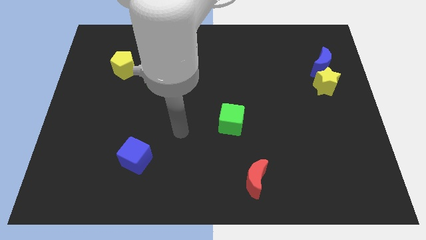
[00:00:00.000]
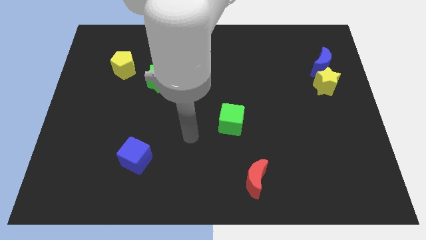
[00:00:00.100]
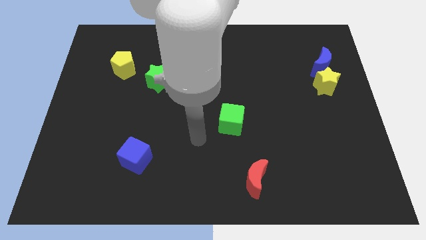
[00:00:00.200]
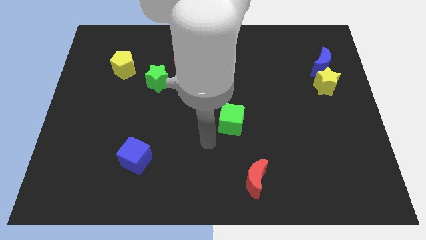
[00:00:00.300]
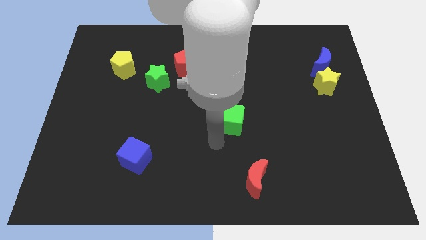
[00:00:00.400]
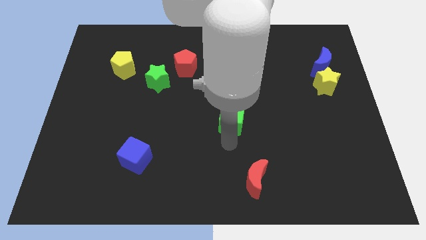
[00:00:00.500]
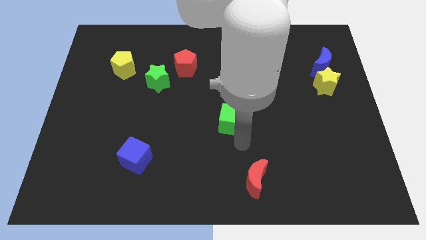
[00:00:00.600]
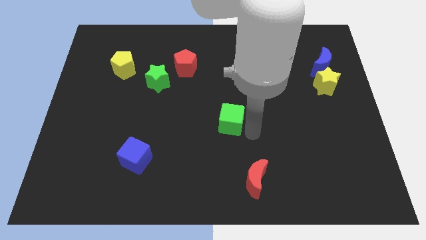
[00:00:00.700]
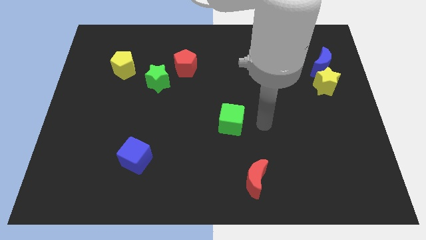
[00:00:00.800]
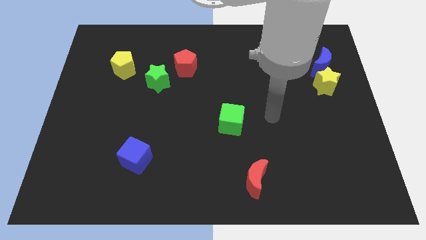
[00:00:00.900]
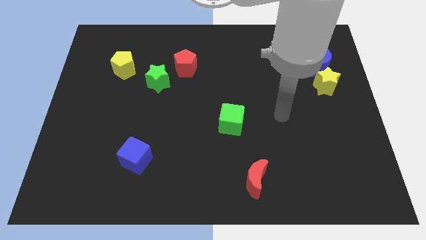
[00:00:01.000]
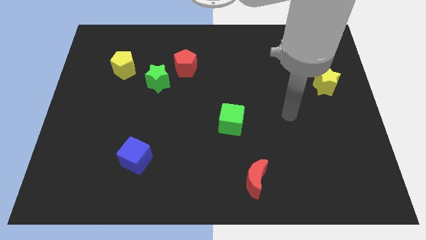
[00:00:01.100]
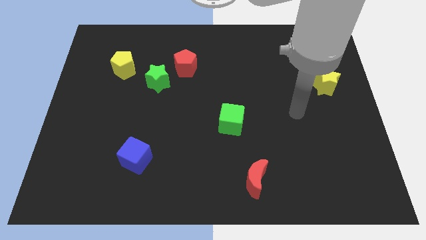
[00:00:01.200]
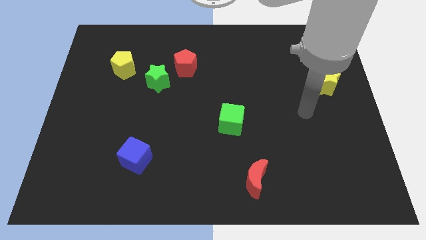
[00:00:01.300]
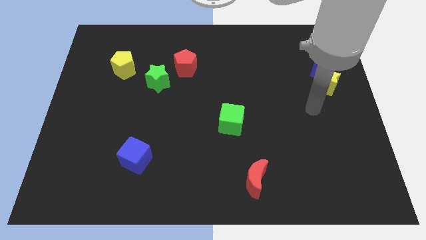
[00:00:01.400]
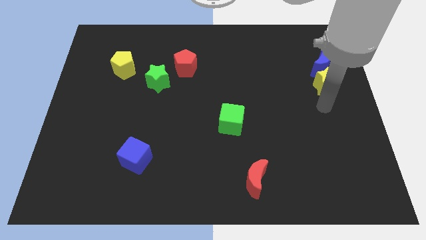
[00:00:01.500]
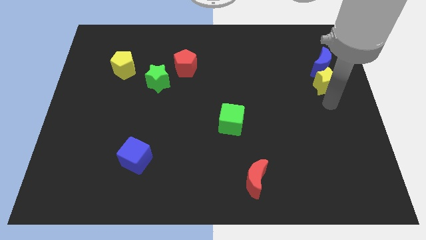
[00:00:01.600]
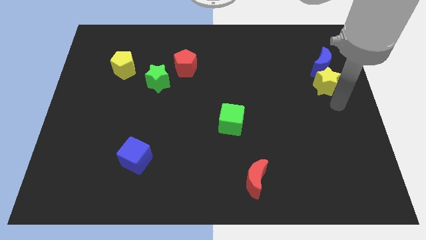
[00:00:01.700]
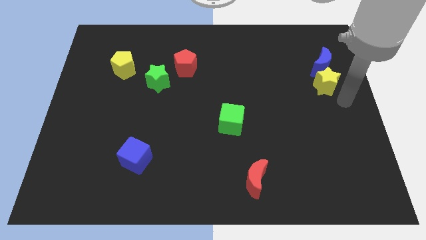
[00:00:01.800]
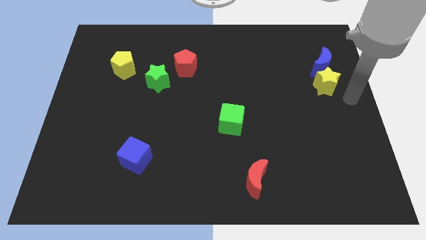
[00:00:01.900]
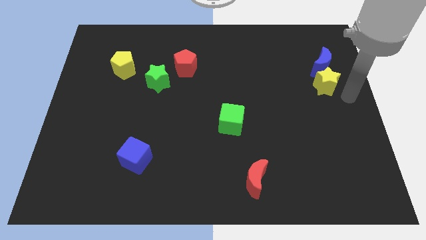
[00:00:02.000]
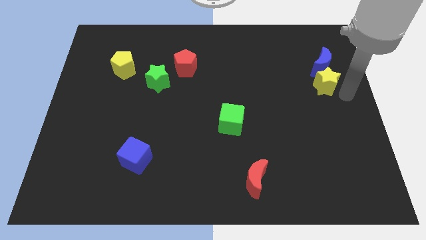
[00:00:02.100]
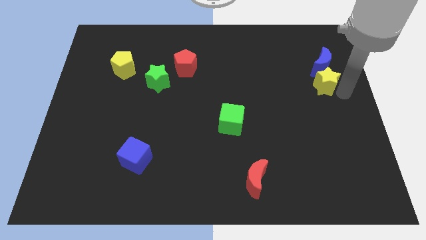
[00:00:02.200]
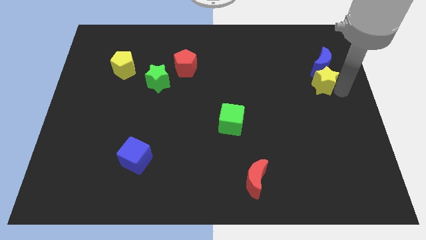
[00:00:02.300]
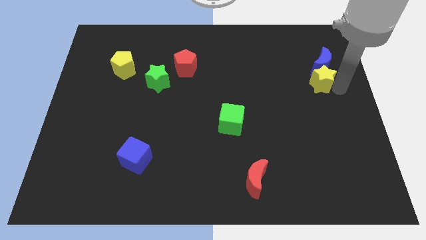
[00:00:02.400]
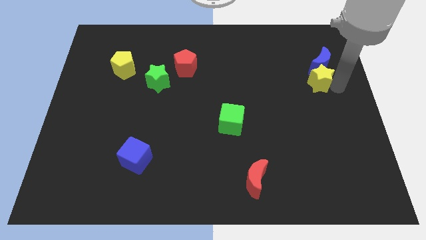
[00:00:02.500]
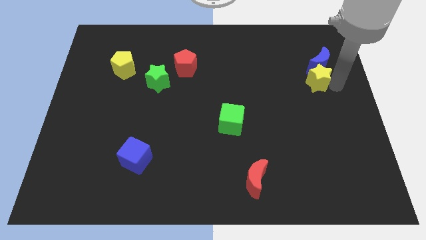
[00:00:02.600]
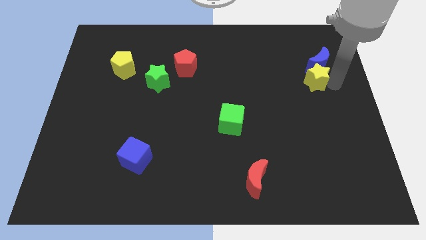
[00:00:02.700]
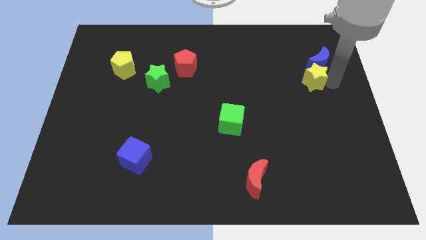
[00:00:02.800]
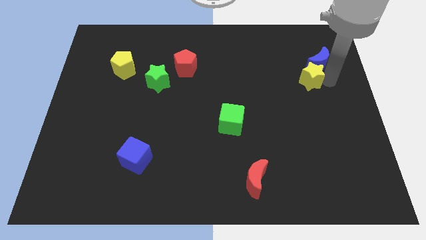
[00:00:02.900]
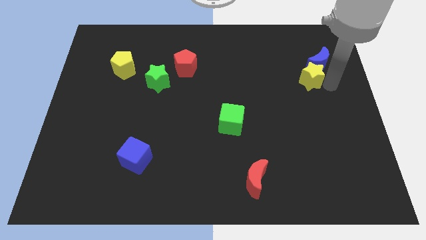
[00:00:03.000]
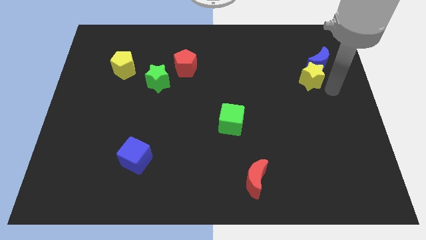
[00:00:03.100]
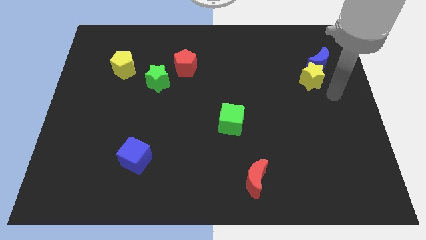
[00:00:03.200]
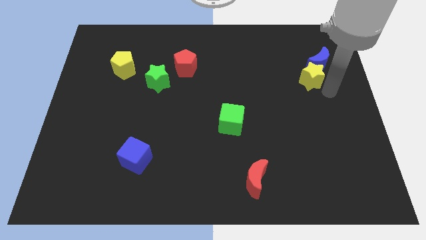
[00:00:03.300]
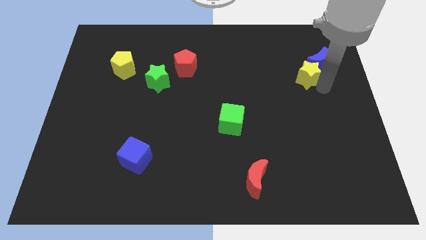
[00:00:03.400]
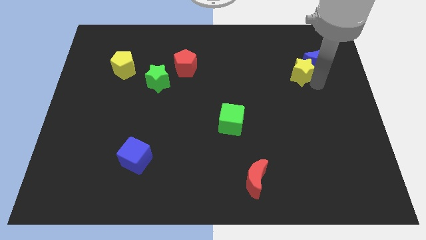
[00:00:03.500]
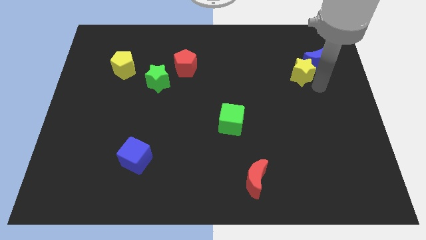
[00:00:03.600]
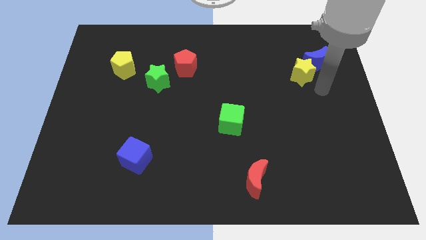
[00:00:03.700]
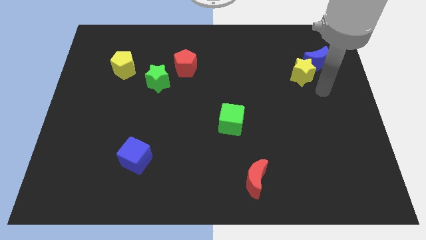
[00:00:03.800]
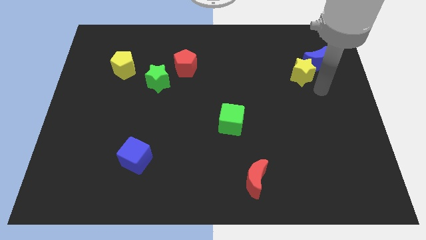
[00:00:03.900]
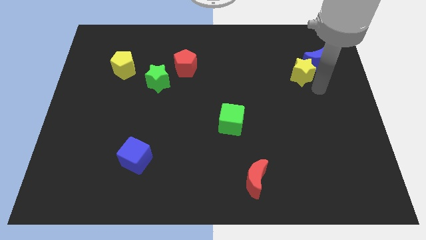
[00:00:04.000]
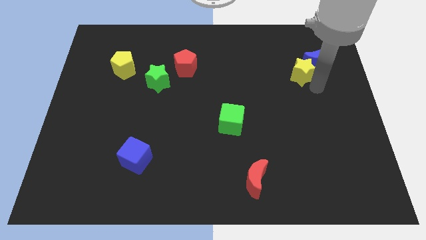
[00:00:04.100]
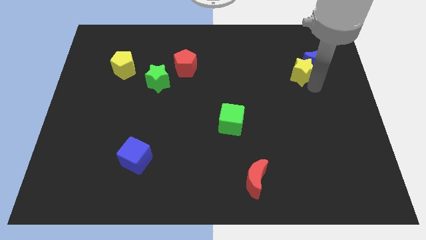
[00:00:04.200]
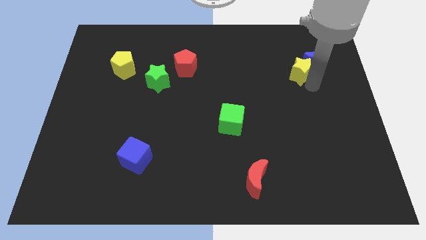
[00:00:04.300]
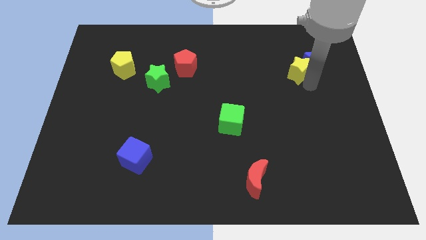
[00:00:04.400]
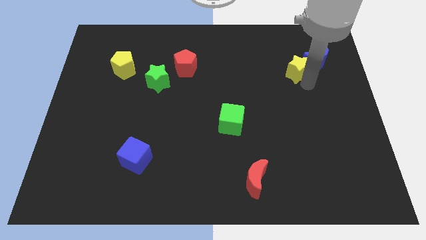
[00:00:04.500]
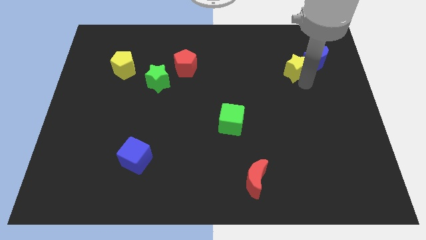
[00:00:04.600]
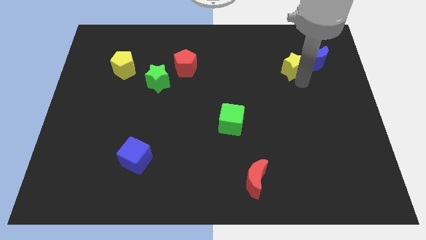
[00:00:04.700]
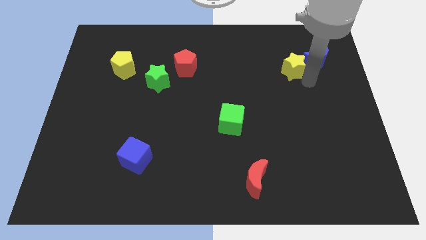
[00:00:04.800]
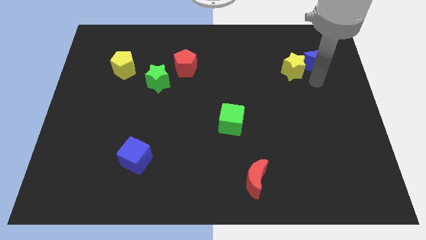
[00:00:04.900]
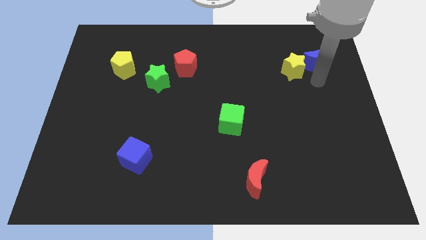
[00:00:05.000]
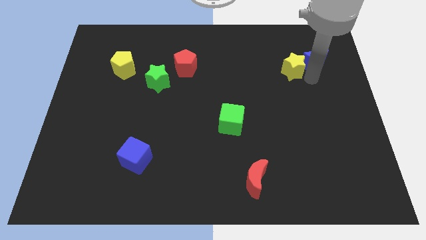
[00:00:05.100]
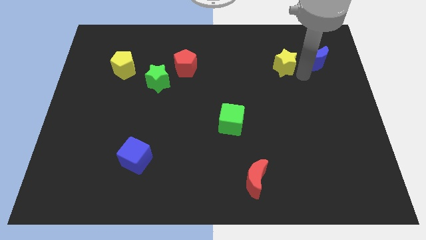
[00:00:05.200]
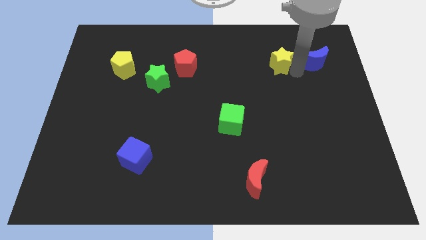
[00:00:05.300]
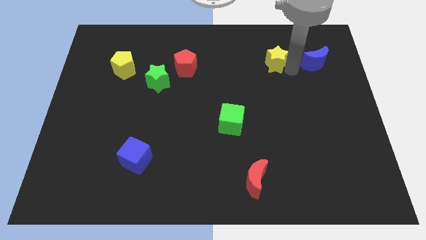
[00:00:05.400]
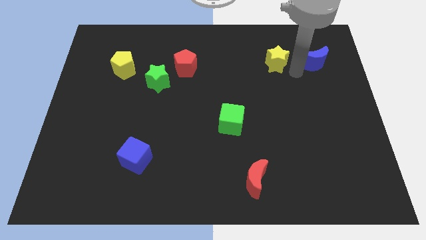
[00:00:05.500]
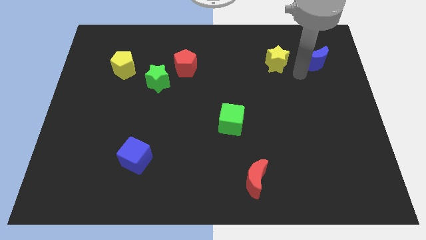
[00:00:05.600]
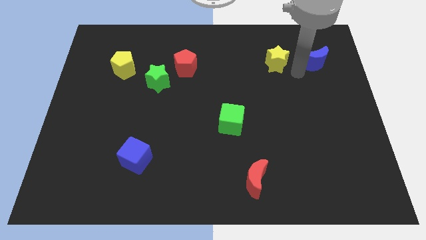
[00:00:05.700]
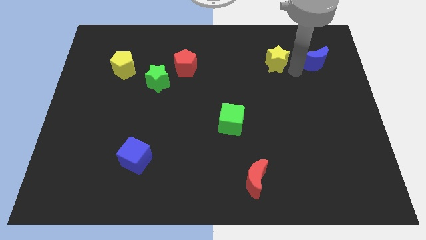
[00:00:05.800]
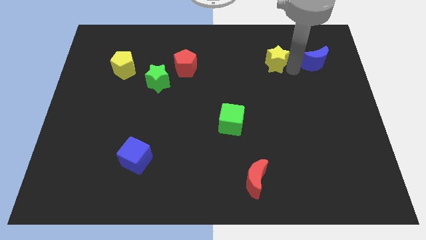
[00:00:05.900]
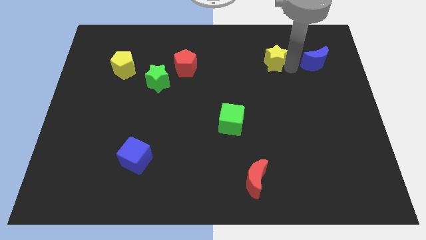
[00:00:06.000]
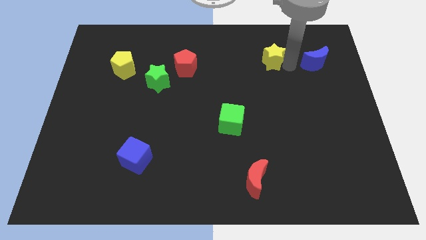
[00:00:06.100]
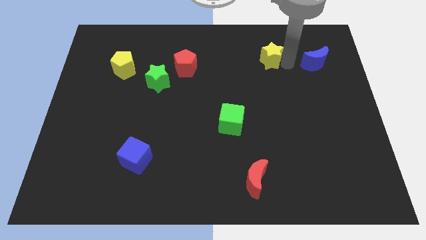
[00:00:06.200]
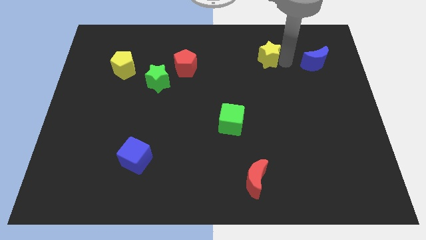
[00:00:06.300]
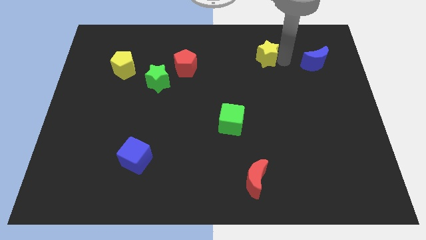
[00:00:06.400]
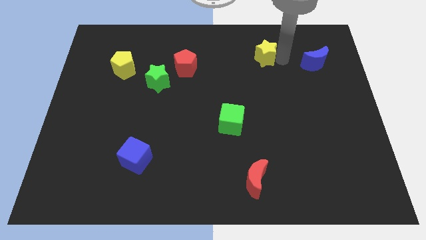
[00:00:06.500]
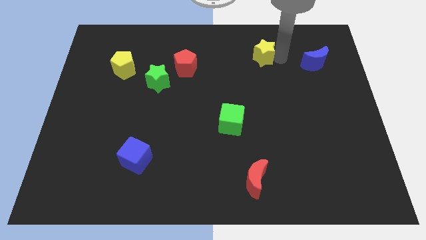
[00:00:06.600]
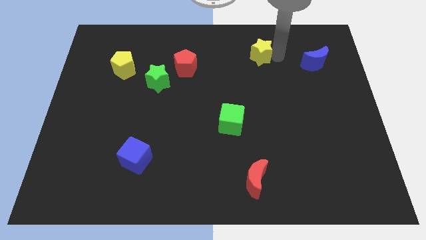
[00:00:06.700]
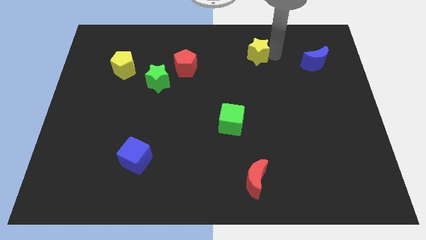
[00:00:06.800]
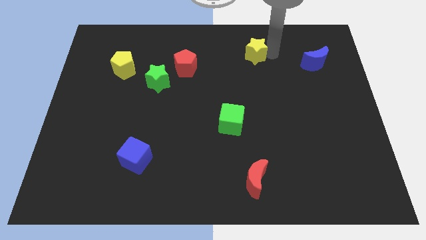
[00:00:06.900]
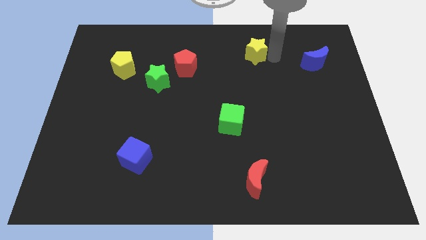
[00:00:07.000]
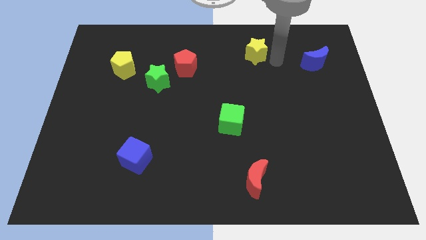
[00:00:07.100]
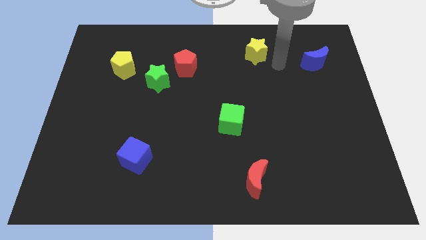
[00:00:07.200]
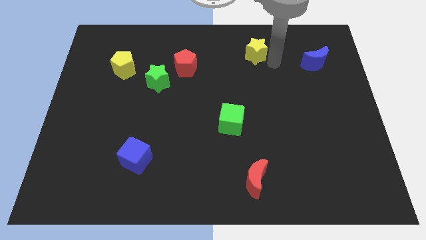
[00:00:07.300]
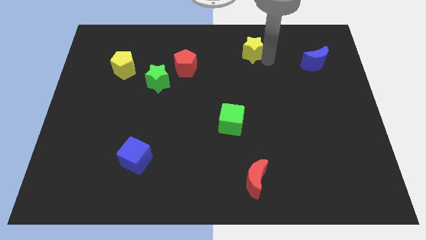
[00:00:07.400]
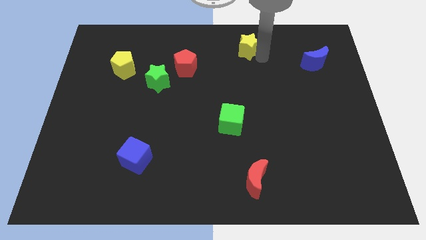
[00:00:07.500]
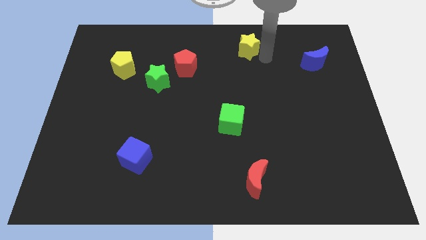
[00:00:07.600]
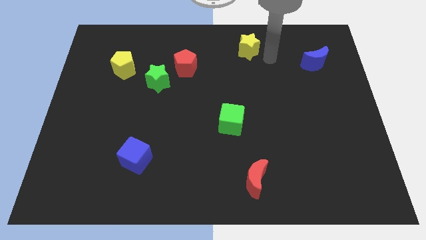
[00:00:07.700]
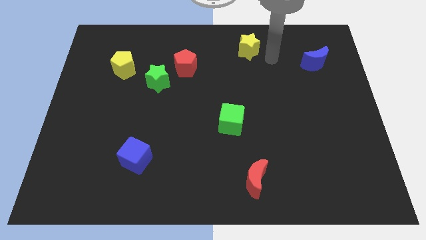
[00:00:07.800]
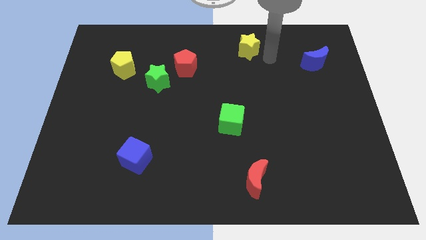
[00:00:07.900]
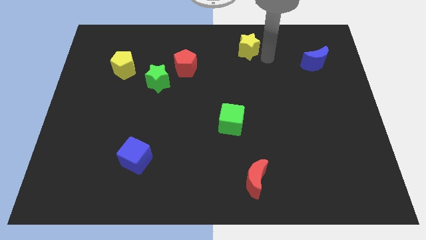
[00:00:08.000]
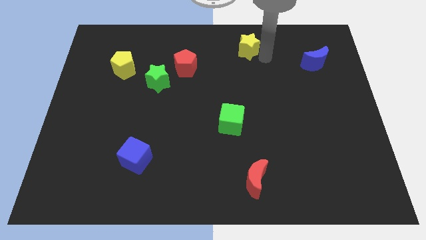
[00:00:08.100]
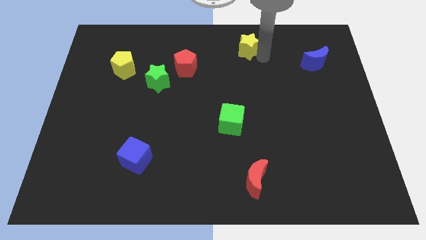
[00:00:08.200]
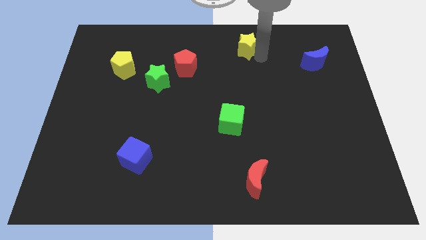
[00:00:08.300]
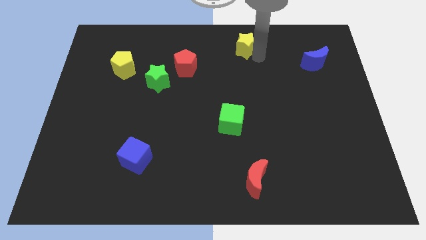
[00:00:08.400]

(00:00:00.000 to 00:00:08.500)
move the yellow star to the towards your base
